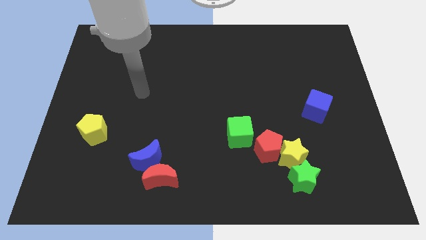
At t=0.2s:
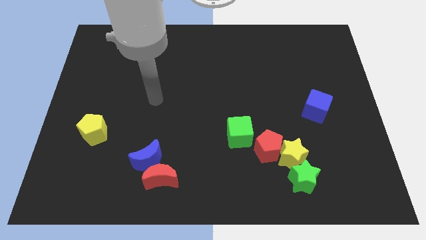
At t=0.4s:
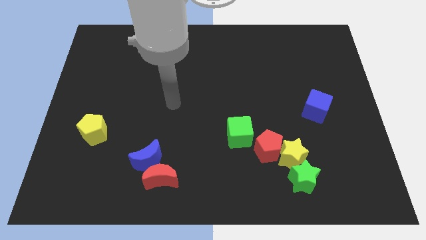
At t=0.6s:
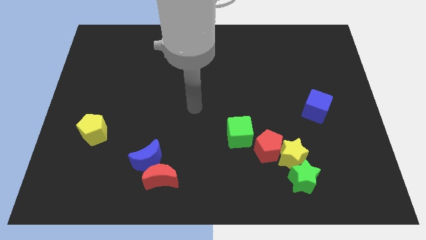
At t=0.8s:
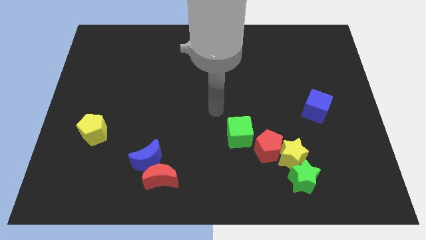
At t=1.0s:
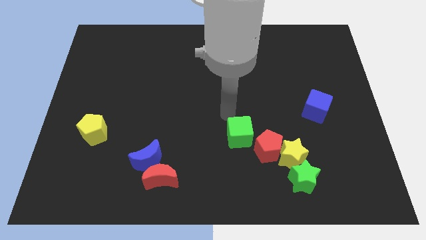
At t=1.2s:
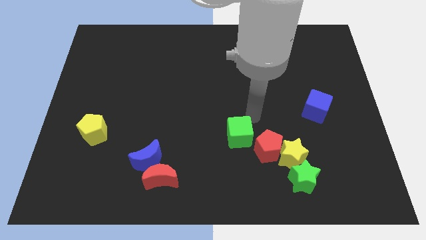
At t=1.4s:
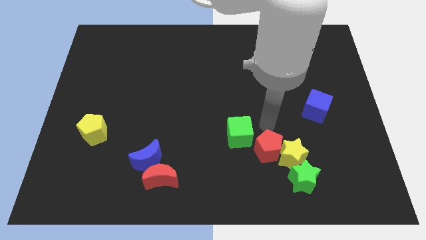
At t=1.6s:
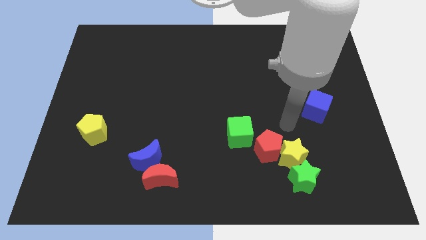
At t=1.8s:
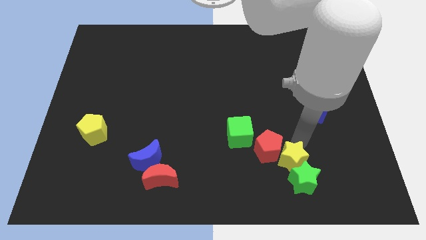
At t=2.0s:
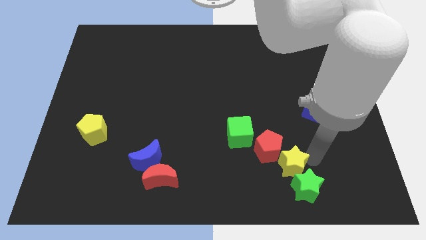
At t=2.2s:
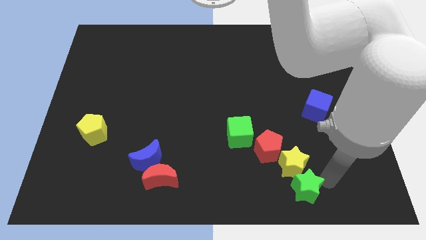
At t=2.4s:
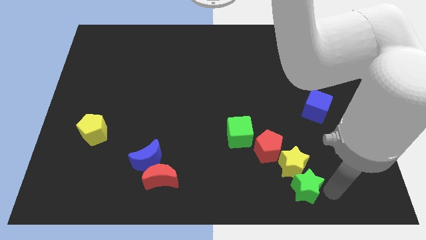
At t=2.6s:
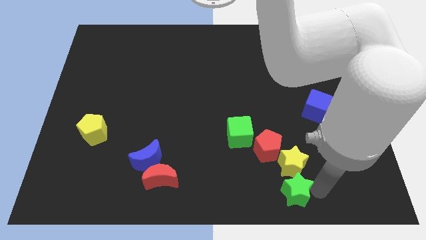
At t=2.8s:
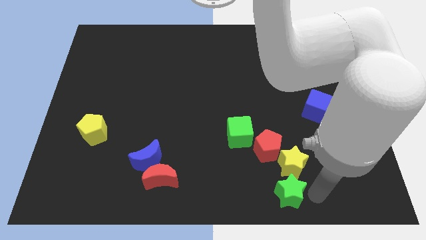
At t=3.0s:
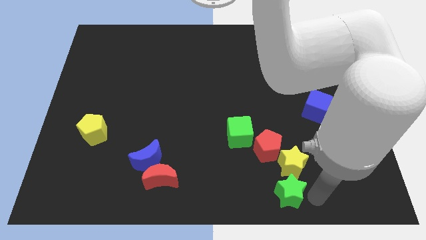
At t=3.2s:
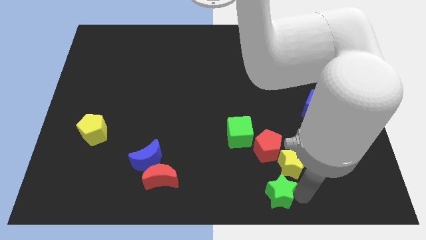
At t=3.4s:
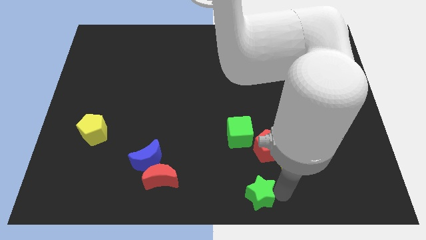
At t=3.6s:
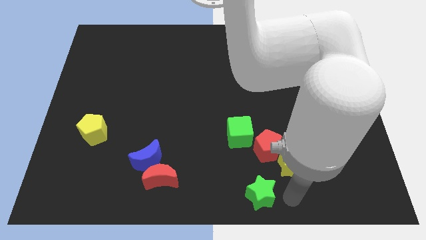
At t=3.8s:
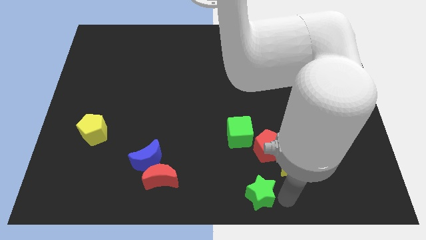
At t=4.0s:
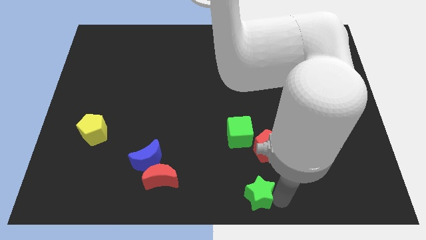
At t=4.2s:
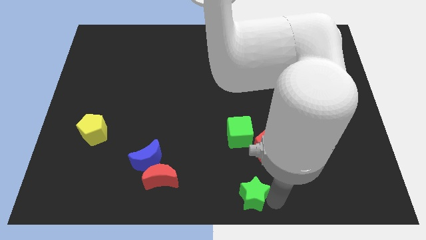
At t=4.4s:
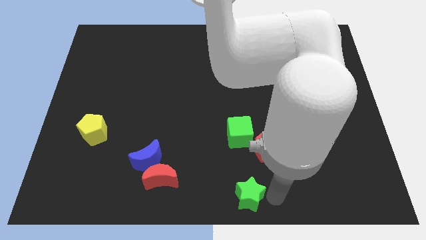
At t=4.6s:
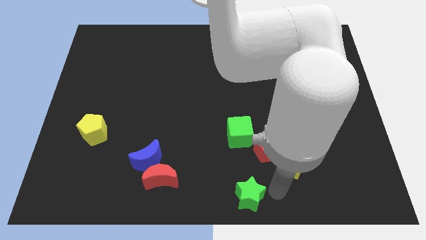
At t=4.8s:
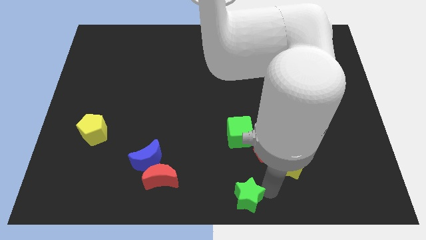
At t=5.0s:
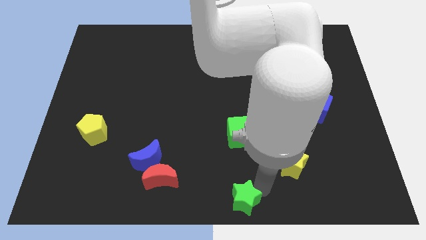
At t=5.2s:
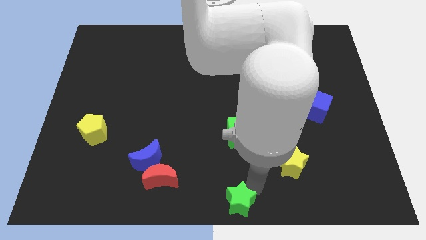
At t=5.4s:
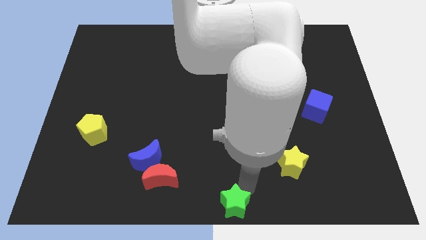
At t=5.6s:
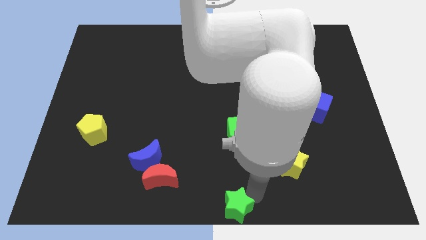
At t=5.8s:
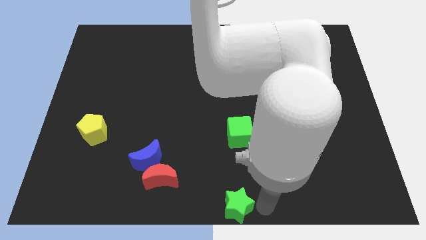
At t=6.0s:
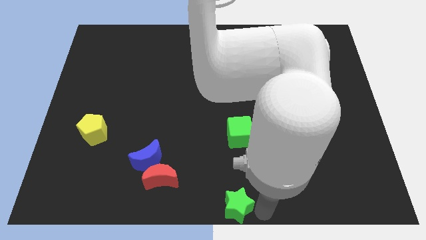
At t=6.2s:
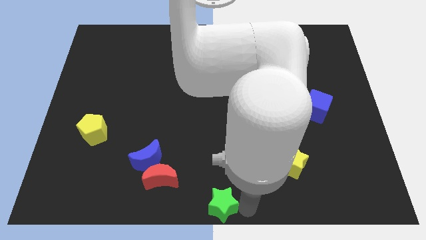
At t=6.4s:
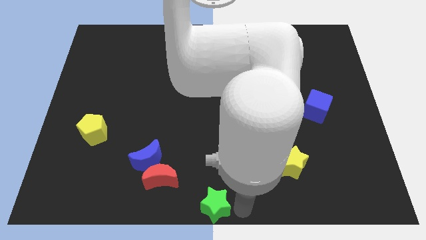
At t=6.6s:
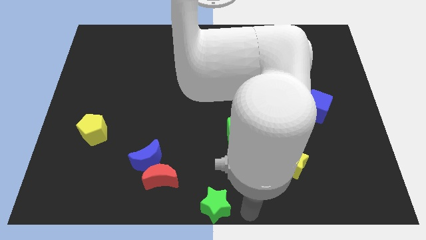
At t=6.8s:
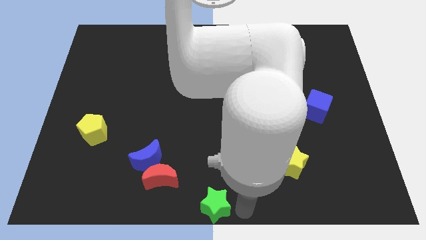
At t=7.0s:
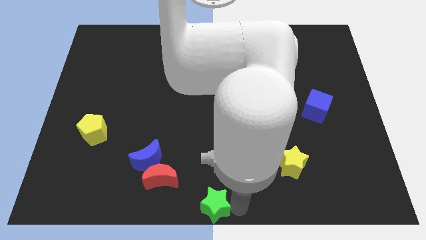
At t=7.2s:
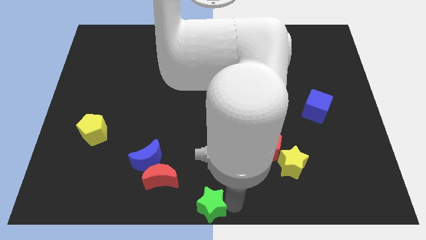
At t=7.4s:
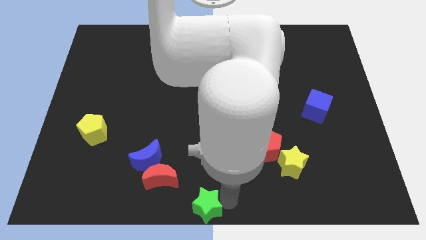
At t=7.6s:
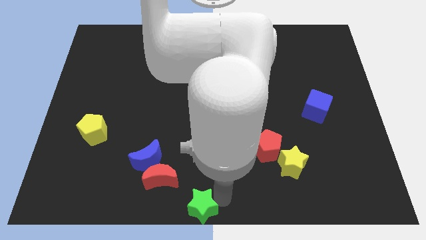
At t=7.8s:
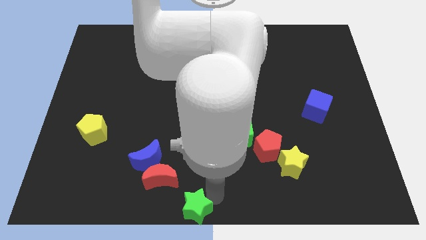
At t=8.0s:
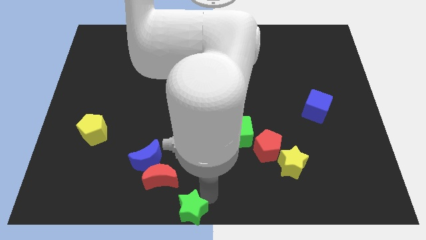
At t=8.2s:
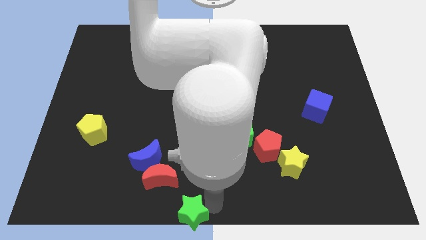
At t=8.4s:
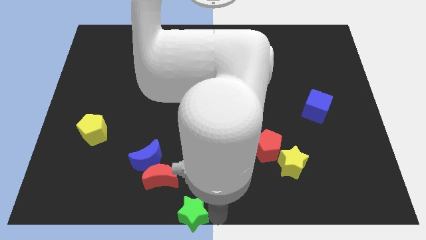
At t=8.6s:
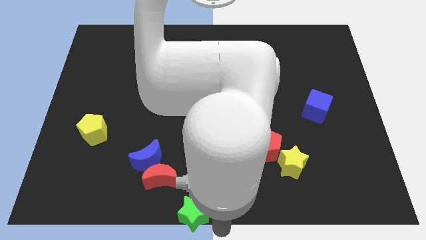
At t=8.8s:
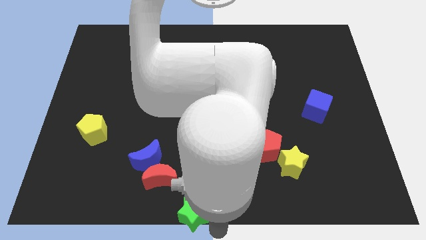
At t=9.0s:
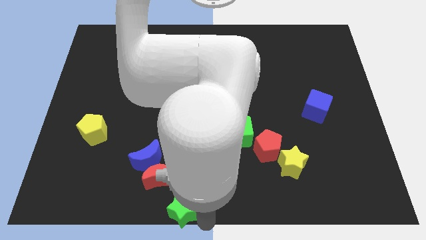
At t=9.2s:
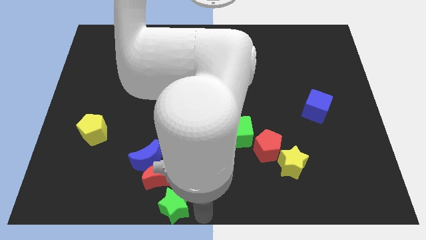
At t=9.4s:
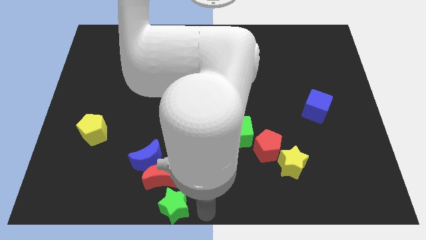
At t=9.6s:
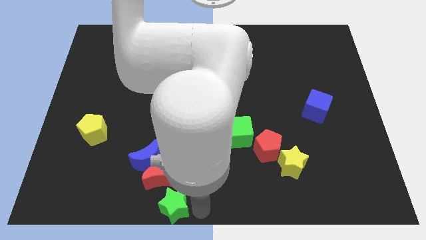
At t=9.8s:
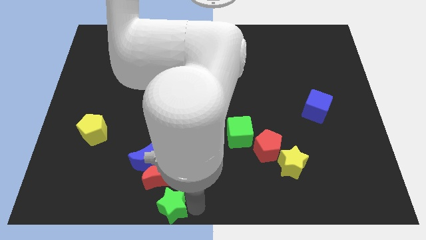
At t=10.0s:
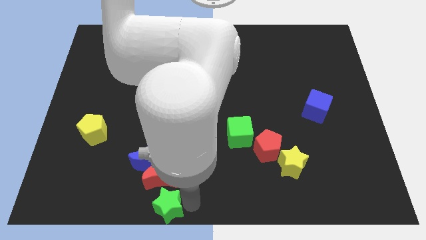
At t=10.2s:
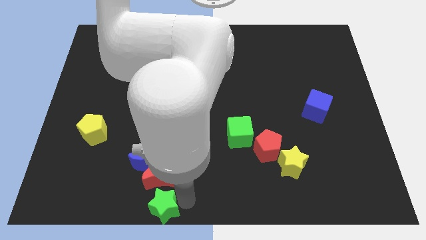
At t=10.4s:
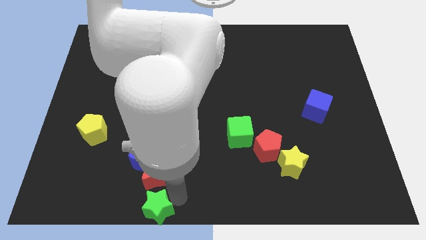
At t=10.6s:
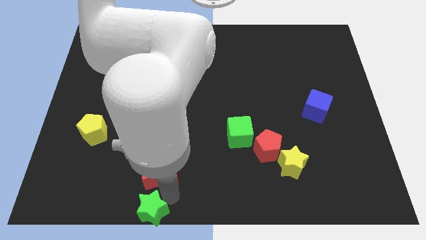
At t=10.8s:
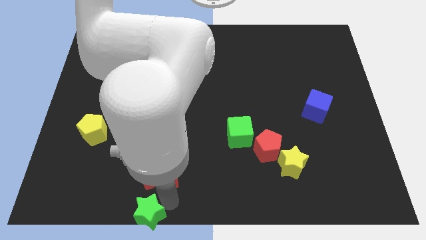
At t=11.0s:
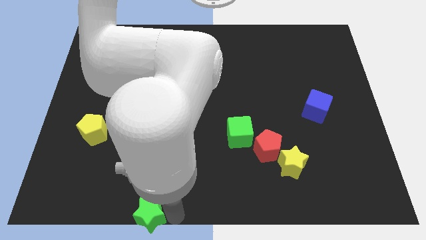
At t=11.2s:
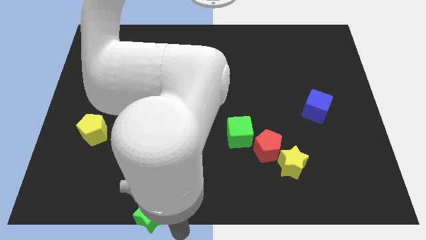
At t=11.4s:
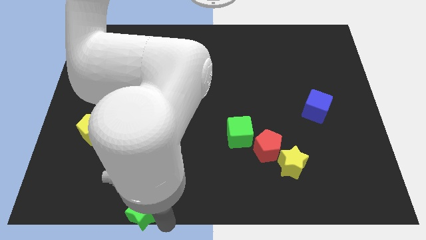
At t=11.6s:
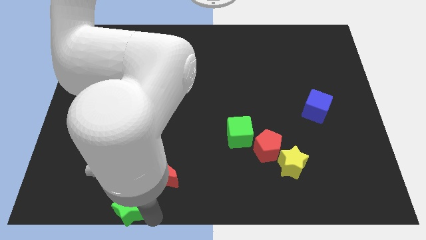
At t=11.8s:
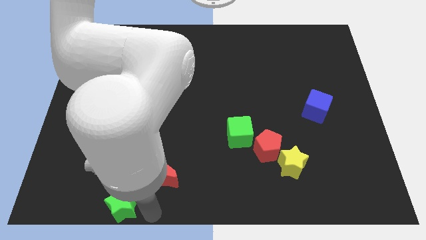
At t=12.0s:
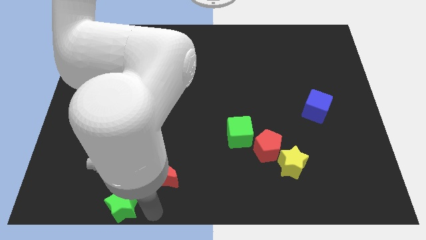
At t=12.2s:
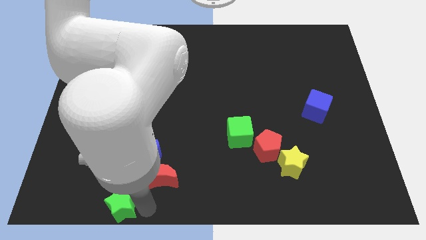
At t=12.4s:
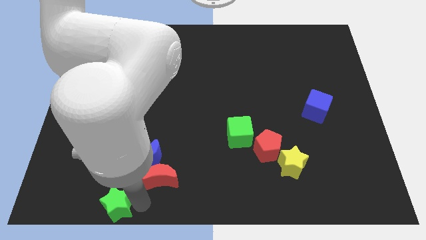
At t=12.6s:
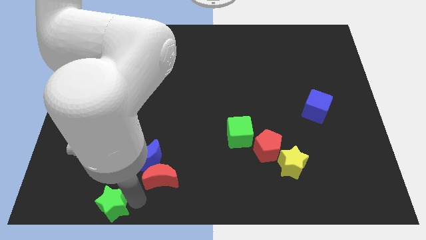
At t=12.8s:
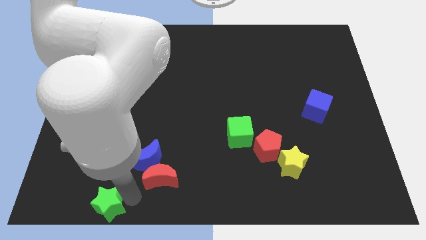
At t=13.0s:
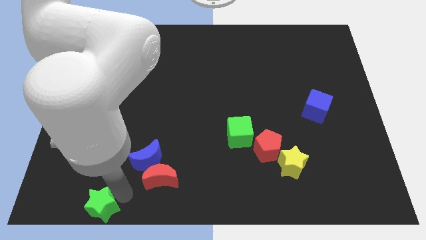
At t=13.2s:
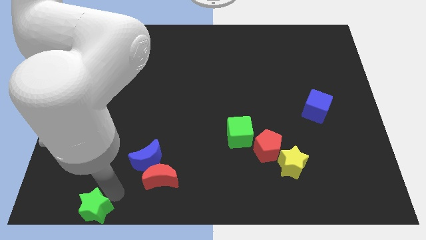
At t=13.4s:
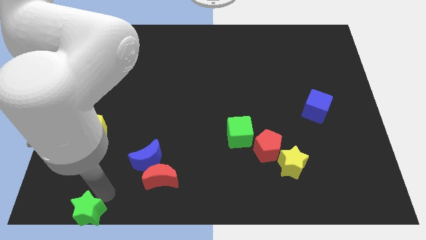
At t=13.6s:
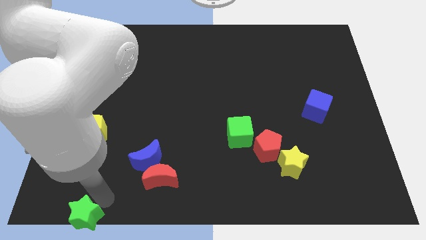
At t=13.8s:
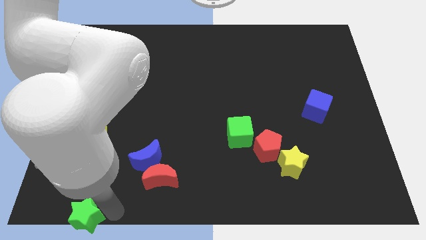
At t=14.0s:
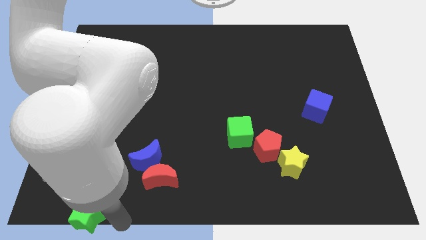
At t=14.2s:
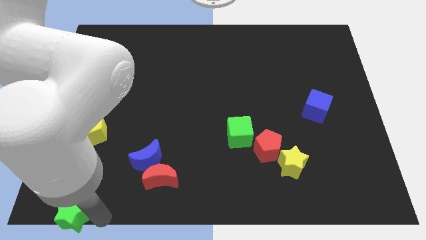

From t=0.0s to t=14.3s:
put the green star to the bottom left of the board
